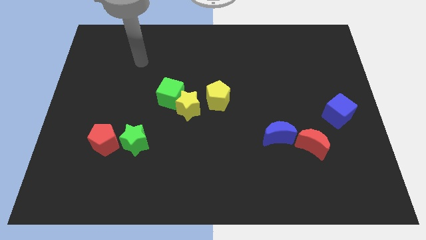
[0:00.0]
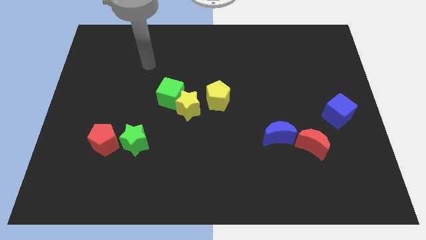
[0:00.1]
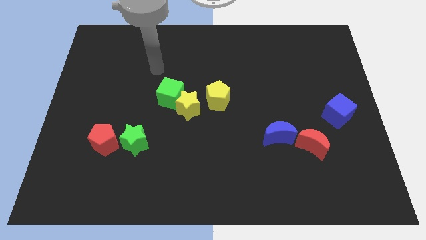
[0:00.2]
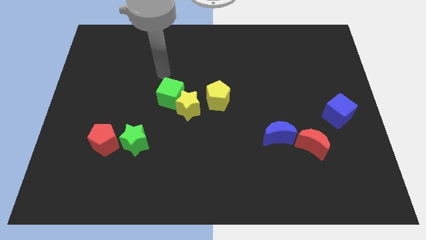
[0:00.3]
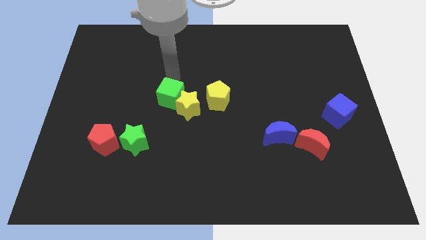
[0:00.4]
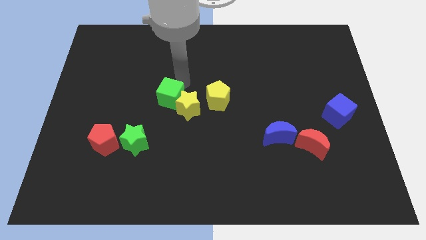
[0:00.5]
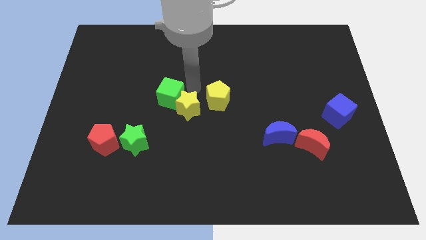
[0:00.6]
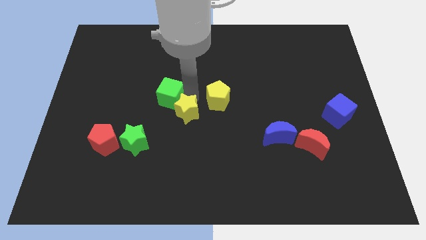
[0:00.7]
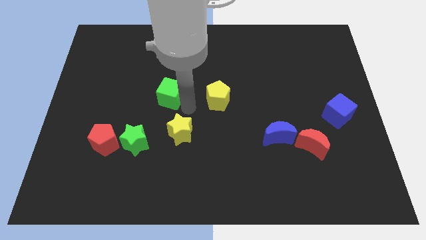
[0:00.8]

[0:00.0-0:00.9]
move the green cube away from the yellow star

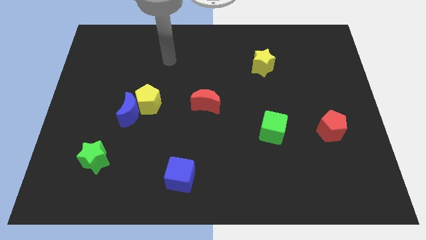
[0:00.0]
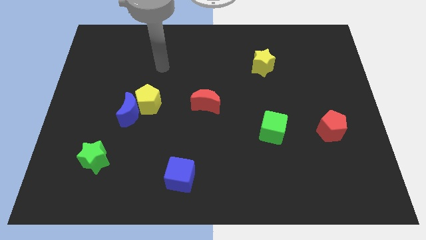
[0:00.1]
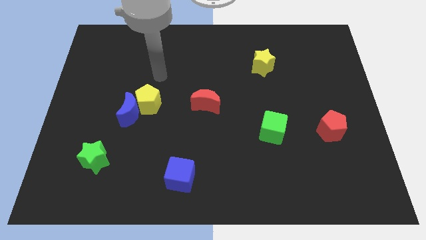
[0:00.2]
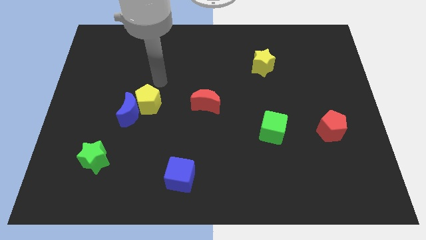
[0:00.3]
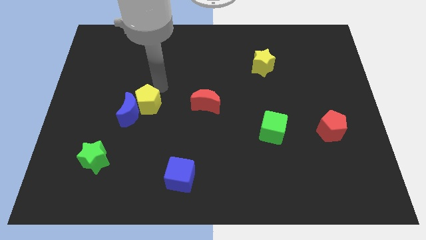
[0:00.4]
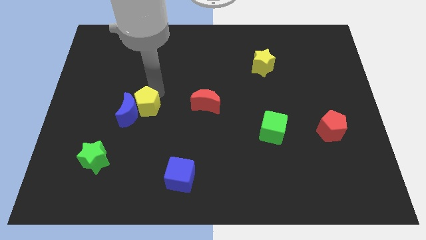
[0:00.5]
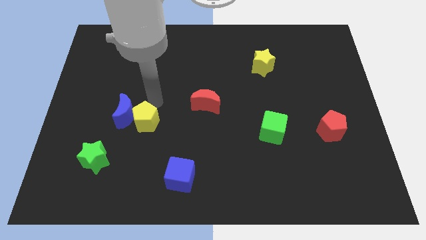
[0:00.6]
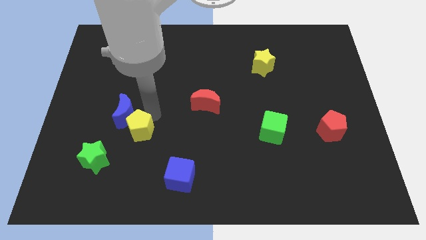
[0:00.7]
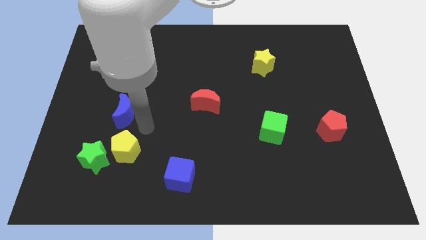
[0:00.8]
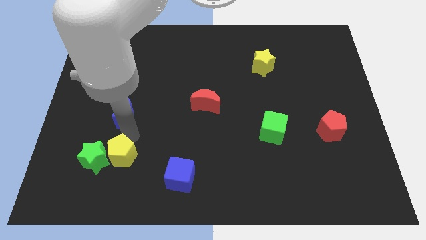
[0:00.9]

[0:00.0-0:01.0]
separate the blue moon from the yellow pentagon

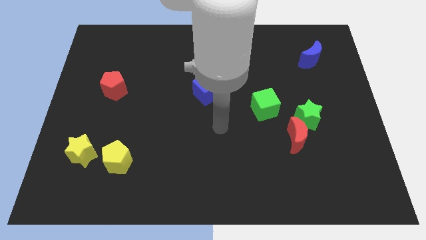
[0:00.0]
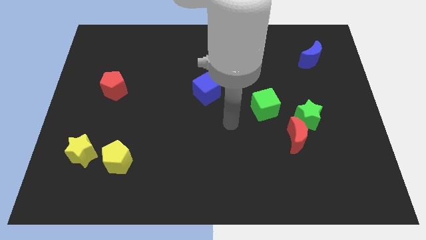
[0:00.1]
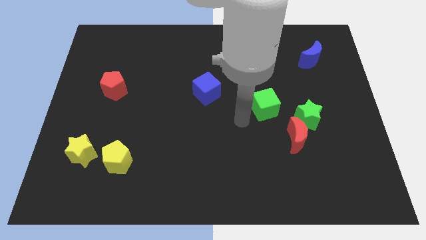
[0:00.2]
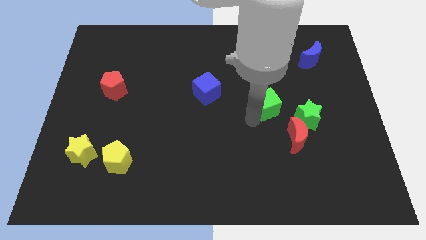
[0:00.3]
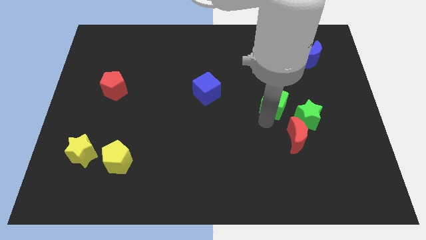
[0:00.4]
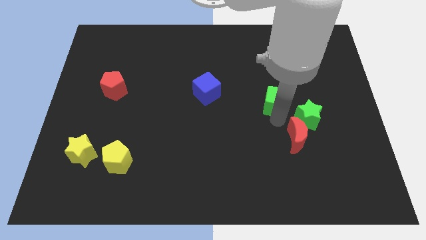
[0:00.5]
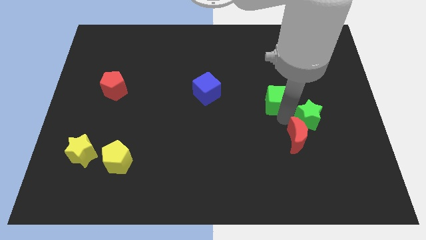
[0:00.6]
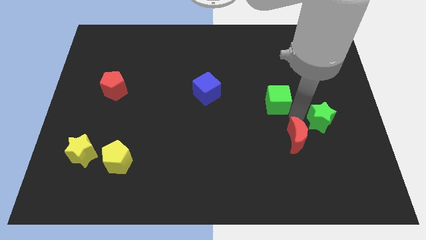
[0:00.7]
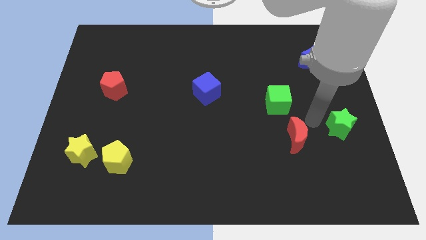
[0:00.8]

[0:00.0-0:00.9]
pull the red moon apart from the green star

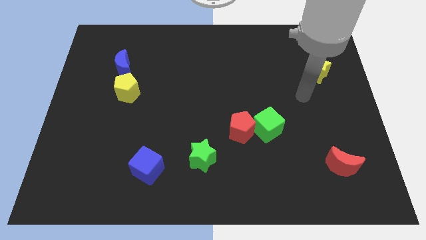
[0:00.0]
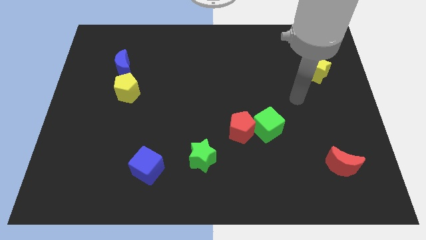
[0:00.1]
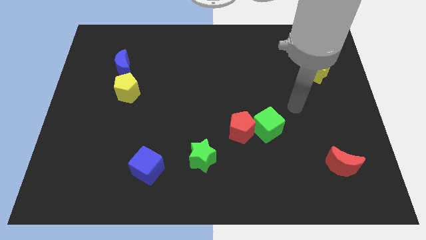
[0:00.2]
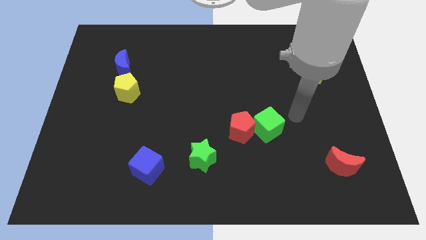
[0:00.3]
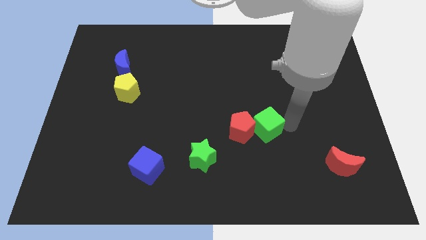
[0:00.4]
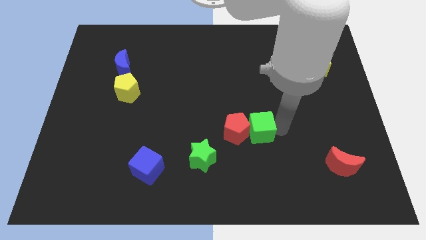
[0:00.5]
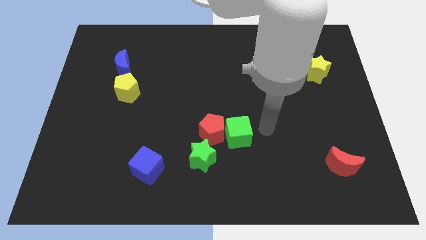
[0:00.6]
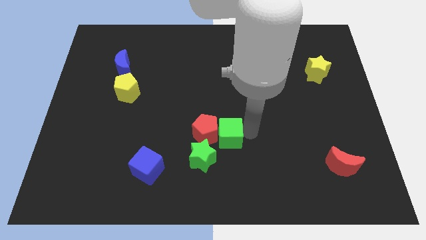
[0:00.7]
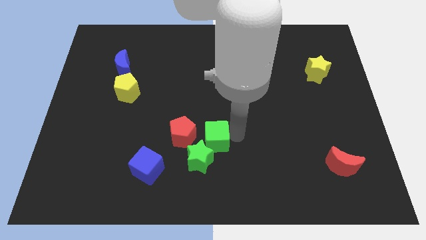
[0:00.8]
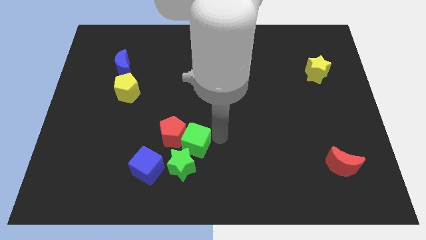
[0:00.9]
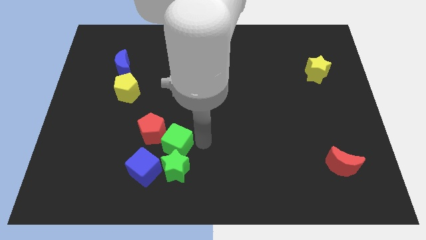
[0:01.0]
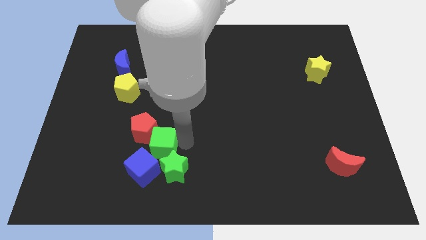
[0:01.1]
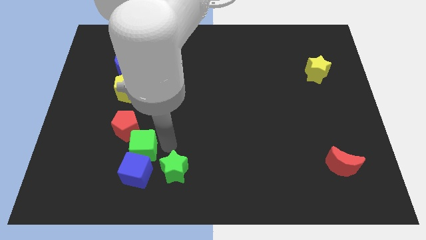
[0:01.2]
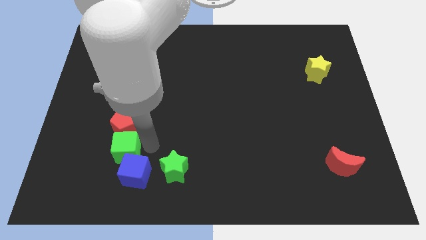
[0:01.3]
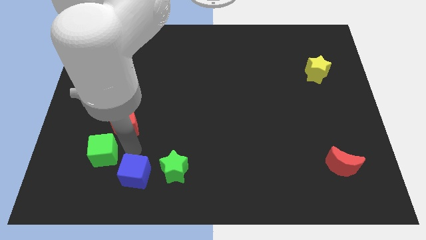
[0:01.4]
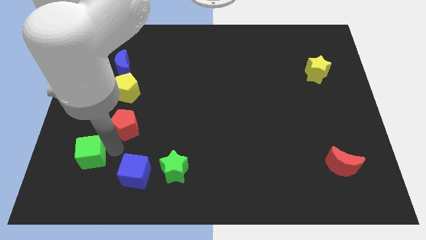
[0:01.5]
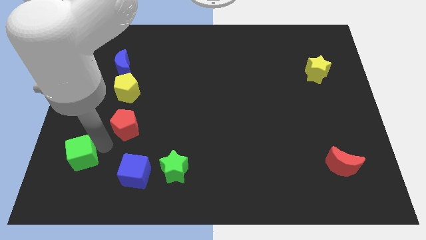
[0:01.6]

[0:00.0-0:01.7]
move the red pentagon away from the green cube

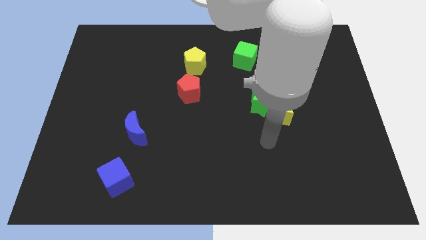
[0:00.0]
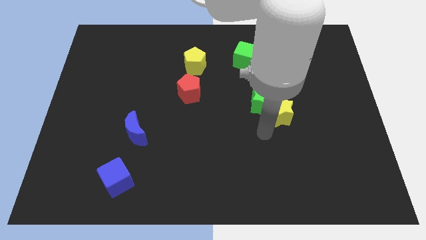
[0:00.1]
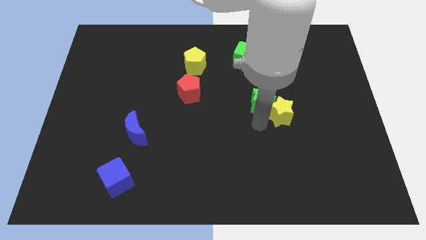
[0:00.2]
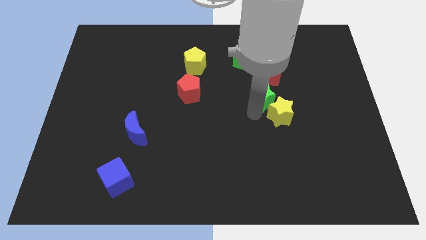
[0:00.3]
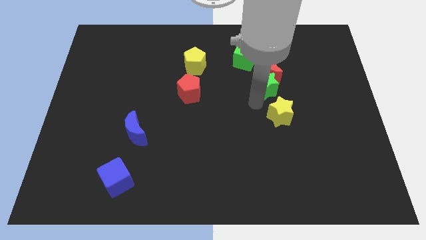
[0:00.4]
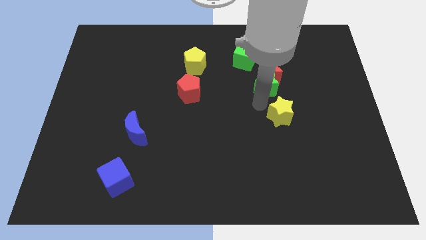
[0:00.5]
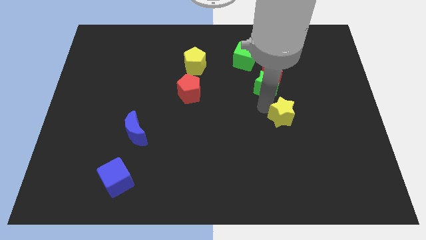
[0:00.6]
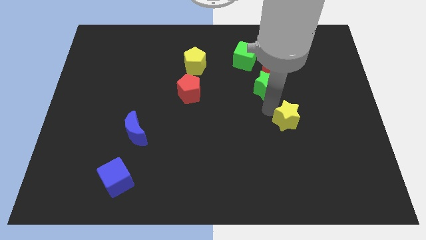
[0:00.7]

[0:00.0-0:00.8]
separate the yellow star from the green star

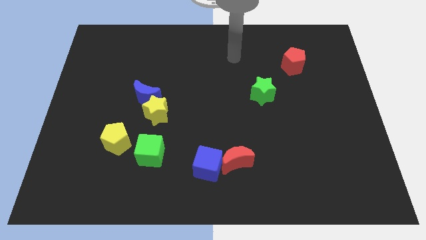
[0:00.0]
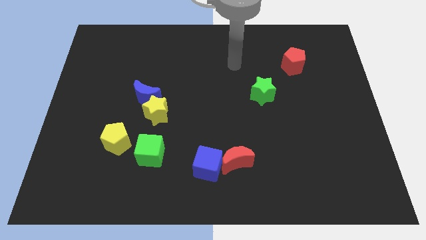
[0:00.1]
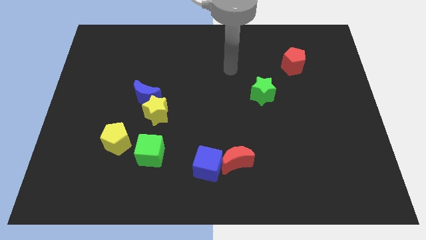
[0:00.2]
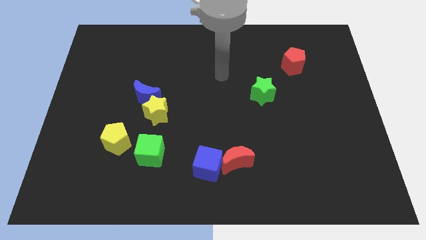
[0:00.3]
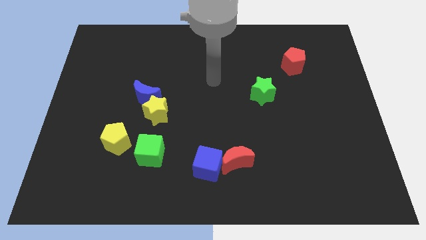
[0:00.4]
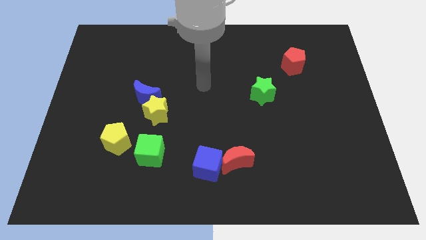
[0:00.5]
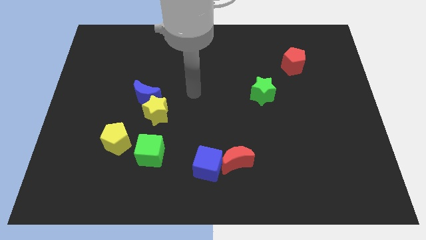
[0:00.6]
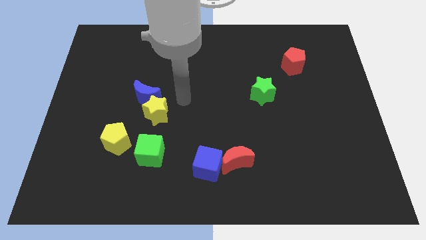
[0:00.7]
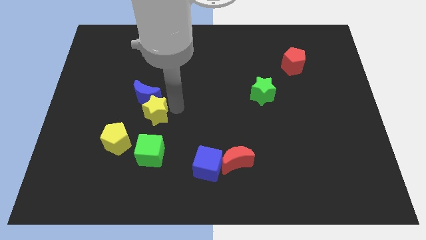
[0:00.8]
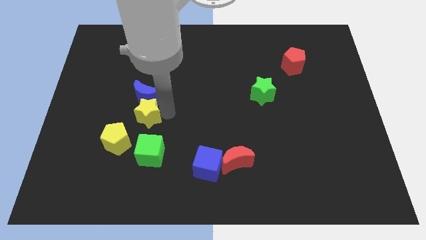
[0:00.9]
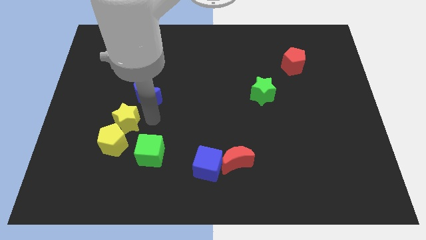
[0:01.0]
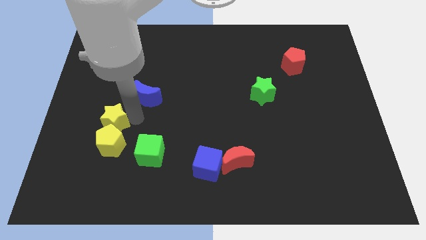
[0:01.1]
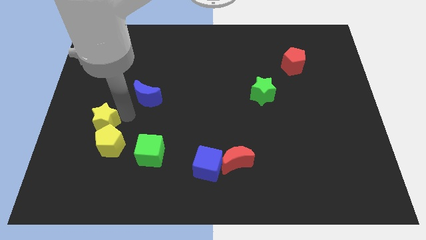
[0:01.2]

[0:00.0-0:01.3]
move the blue moon away from the yellow star

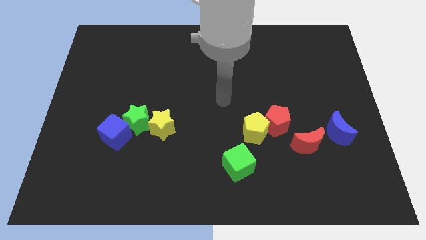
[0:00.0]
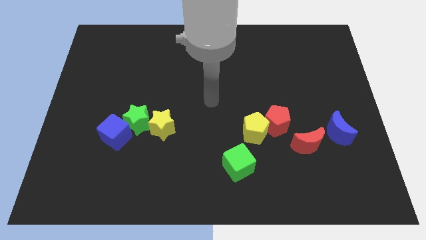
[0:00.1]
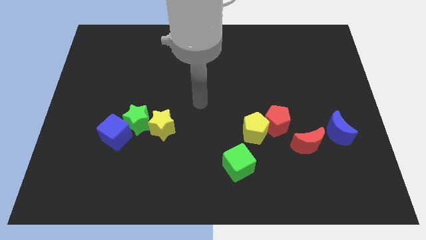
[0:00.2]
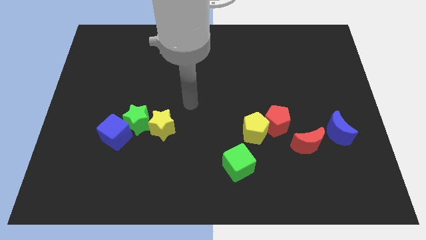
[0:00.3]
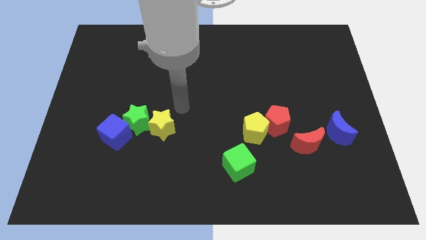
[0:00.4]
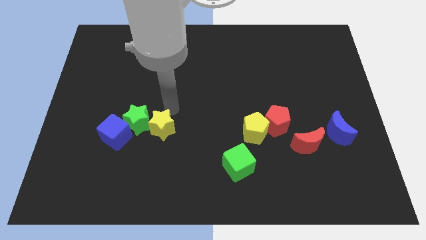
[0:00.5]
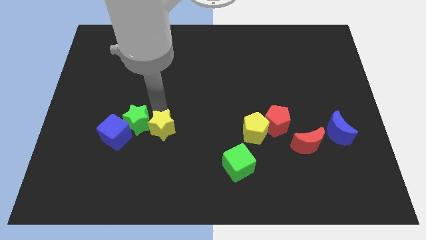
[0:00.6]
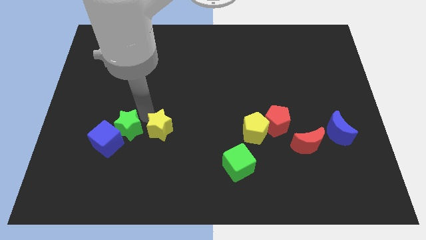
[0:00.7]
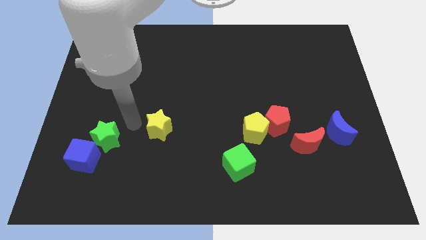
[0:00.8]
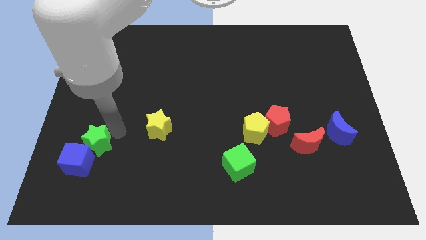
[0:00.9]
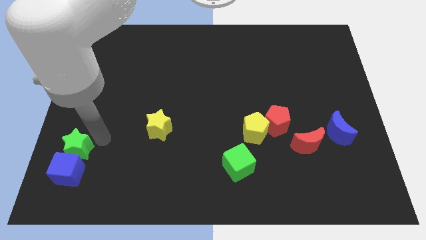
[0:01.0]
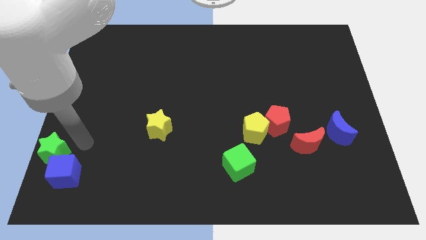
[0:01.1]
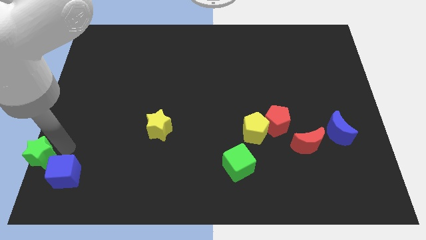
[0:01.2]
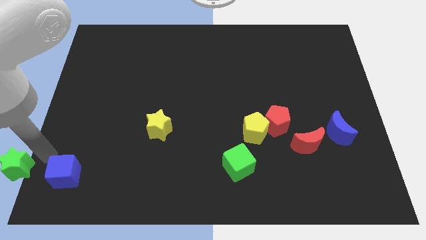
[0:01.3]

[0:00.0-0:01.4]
pull the blue cube apart from the green star

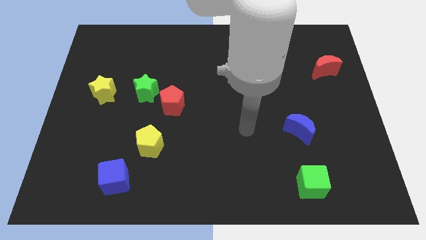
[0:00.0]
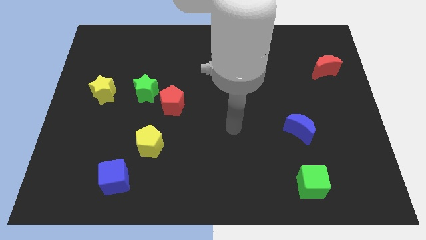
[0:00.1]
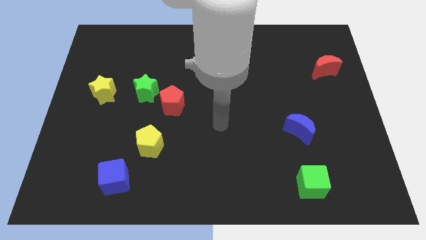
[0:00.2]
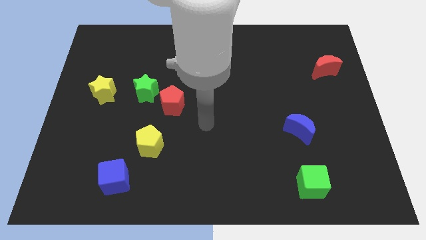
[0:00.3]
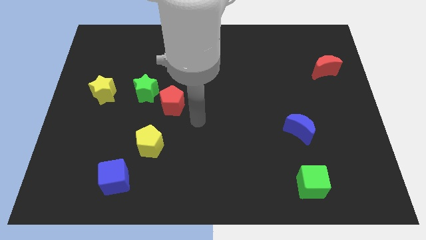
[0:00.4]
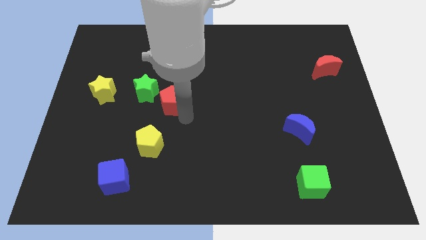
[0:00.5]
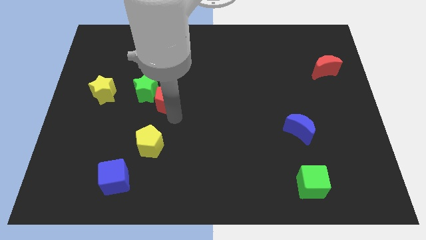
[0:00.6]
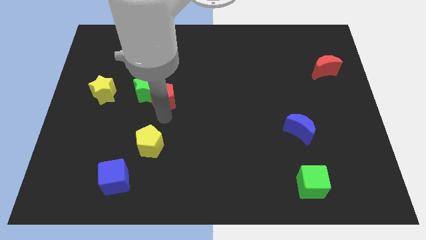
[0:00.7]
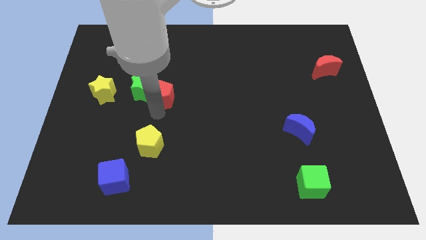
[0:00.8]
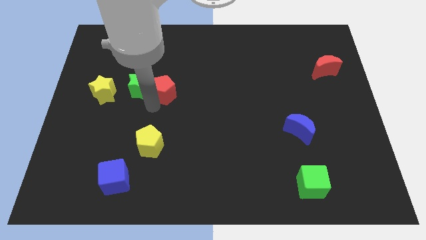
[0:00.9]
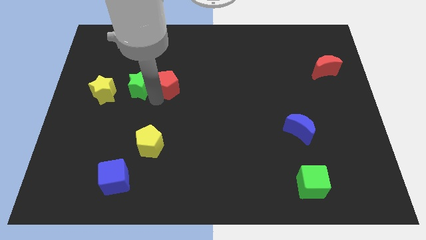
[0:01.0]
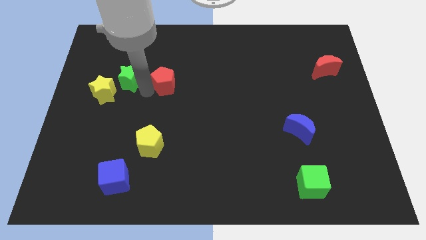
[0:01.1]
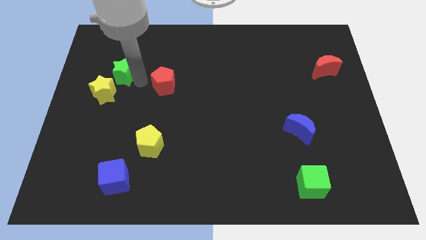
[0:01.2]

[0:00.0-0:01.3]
move the red pentagon away from the green star
